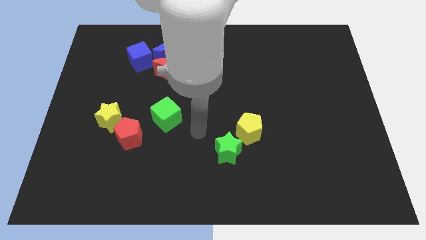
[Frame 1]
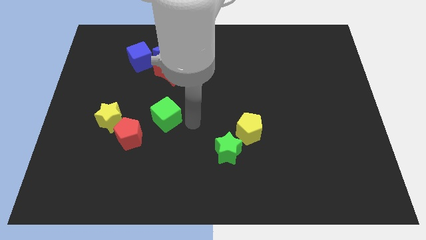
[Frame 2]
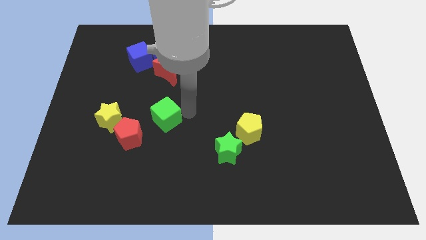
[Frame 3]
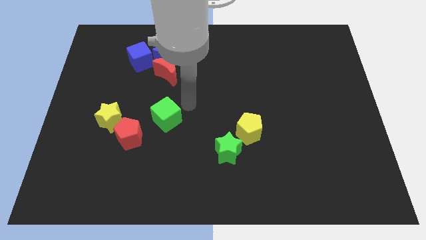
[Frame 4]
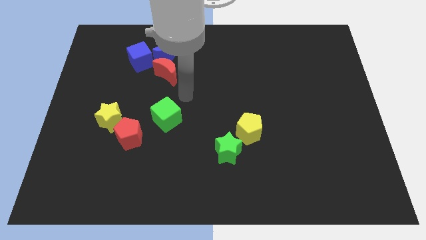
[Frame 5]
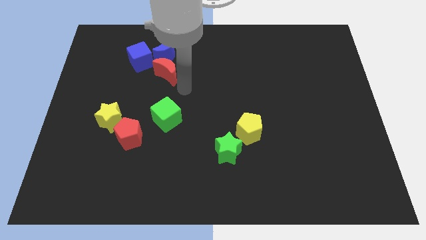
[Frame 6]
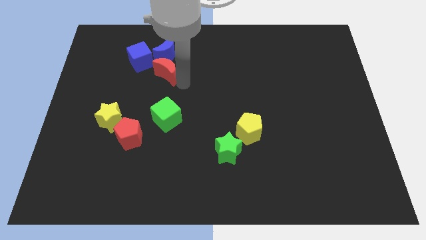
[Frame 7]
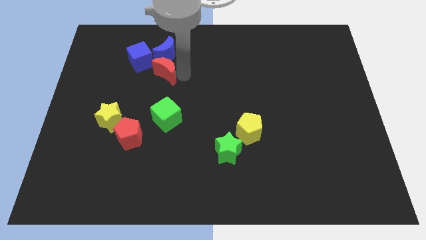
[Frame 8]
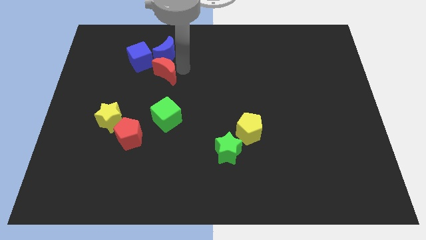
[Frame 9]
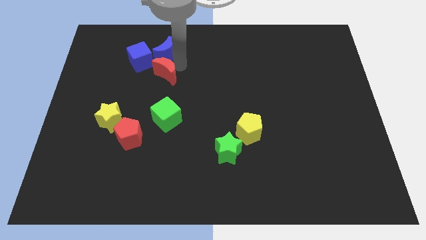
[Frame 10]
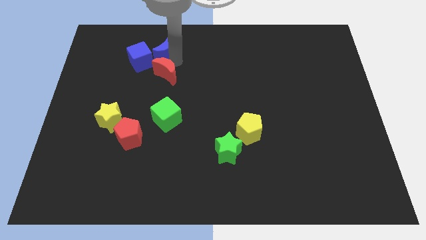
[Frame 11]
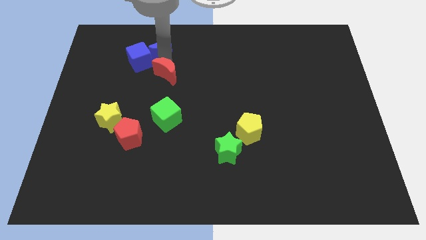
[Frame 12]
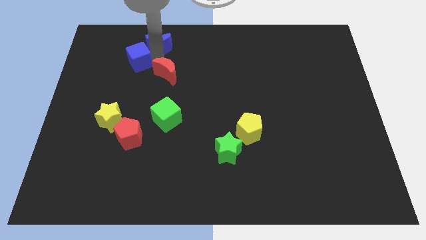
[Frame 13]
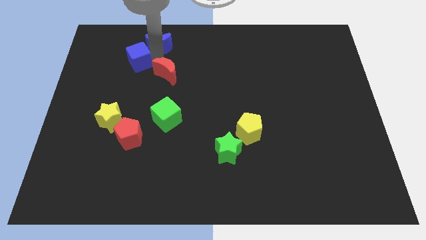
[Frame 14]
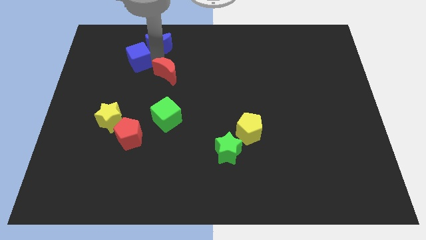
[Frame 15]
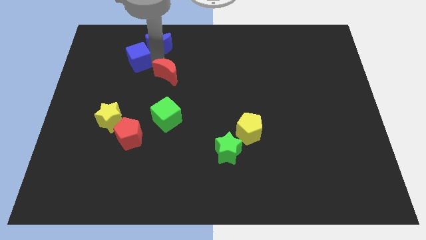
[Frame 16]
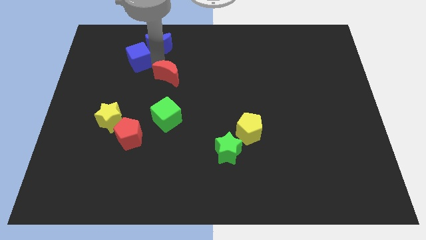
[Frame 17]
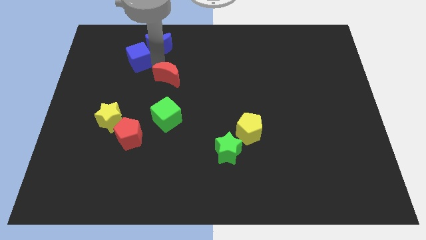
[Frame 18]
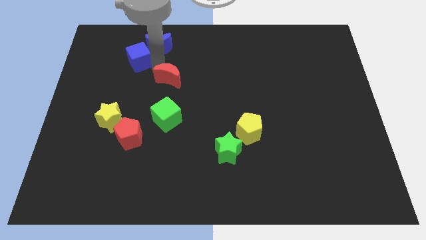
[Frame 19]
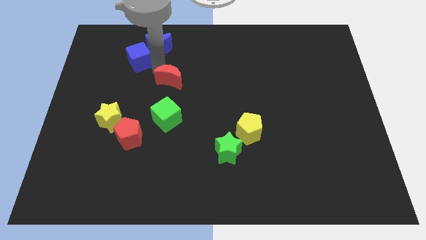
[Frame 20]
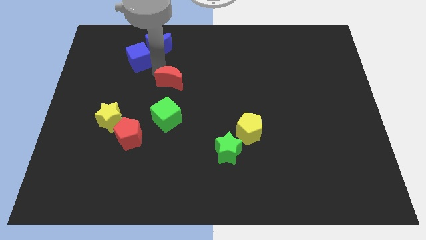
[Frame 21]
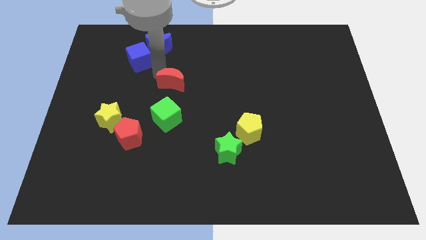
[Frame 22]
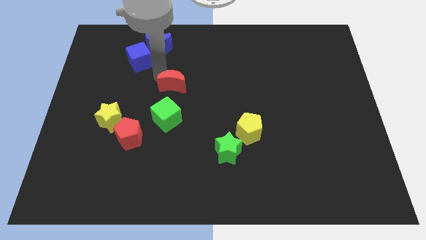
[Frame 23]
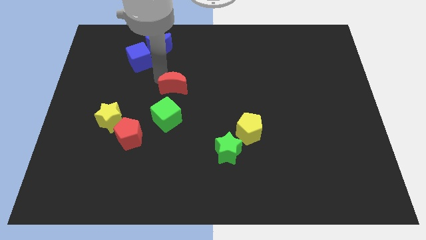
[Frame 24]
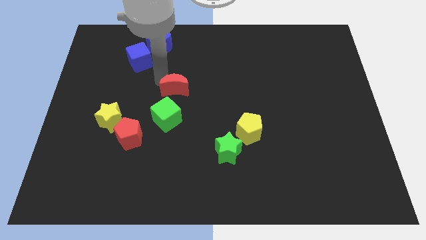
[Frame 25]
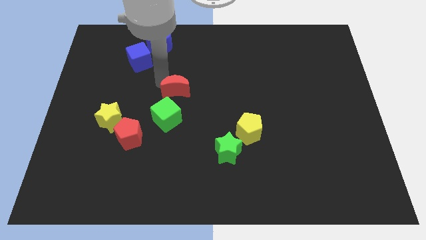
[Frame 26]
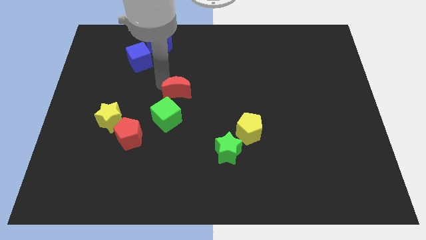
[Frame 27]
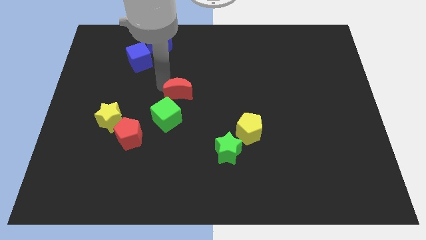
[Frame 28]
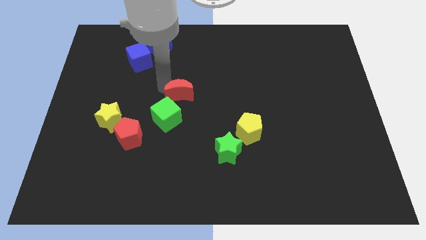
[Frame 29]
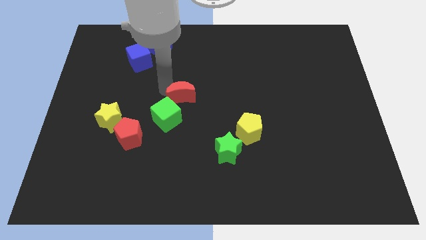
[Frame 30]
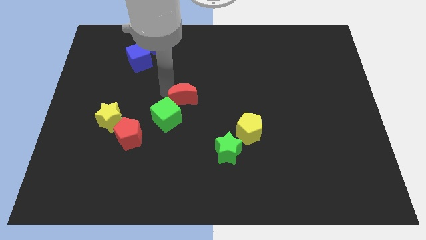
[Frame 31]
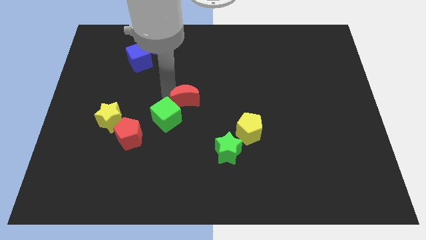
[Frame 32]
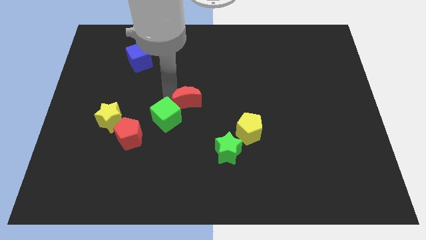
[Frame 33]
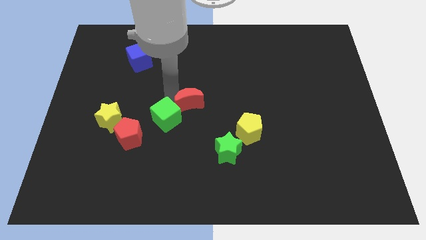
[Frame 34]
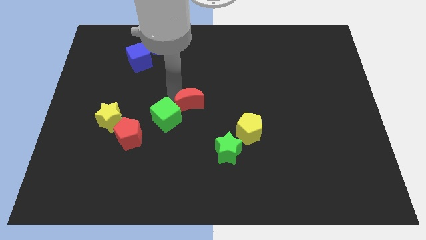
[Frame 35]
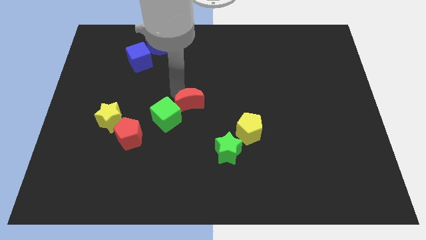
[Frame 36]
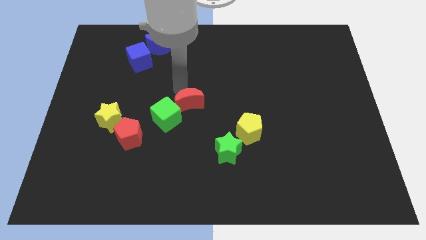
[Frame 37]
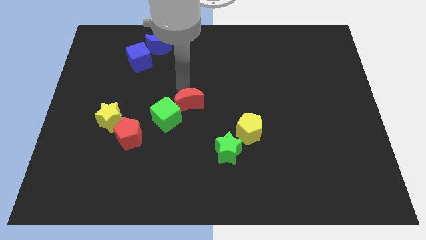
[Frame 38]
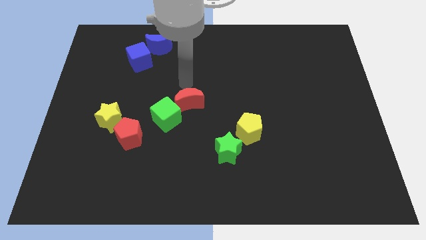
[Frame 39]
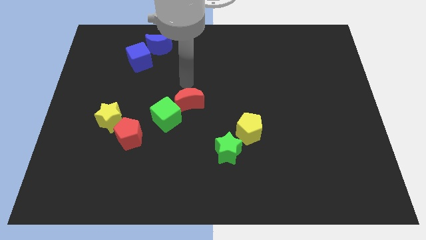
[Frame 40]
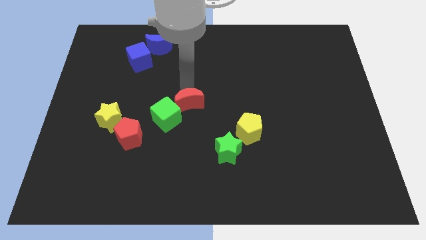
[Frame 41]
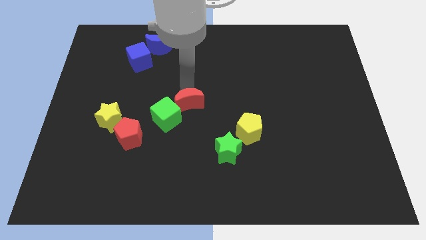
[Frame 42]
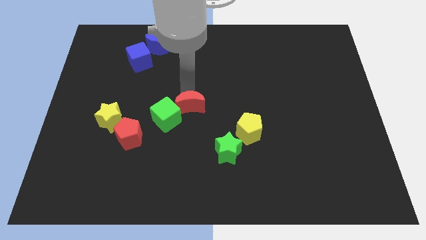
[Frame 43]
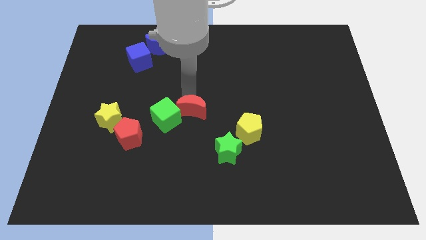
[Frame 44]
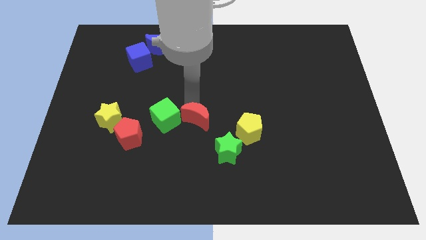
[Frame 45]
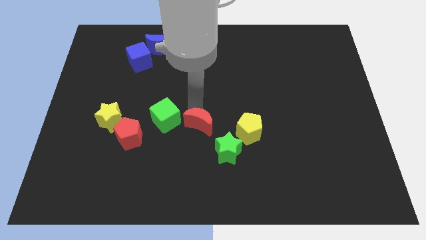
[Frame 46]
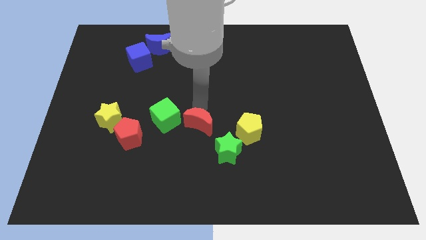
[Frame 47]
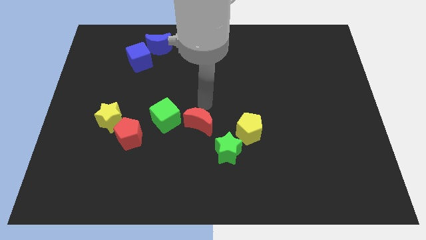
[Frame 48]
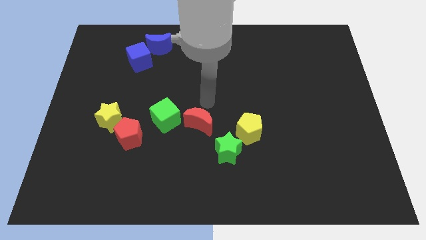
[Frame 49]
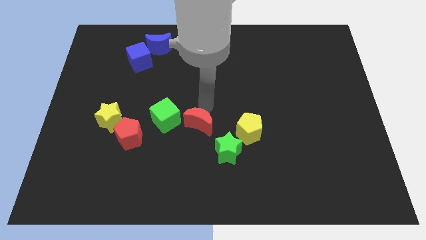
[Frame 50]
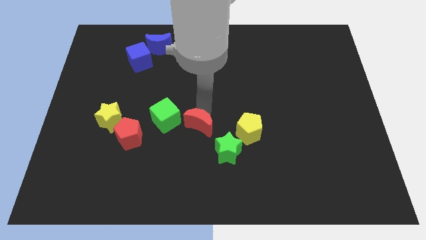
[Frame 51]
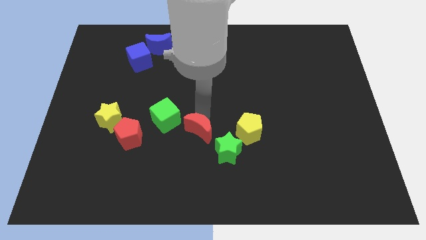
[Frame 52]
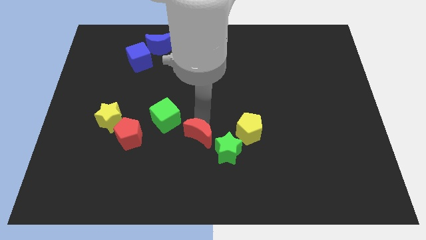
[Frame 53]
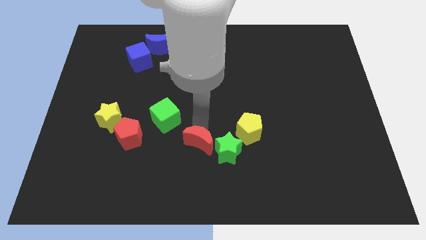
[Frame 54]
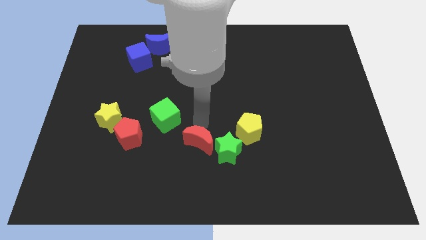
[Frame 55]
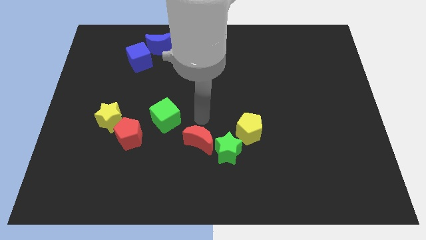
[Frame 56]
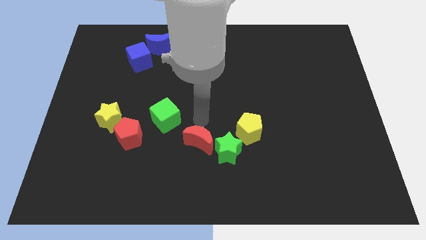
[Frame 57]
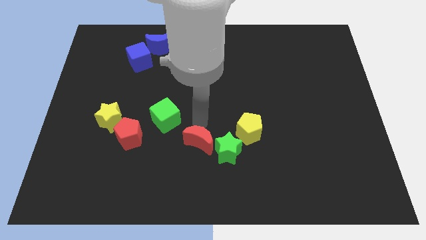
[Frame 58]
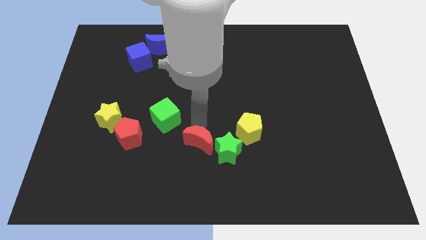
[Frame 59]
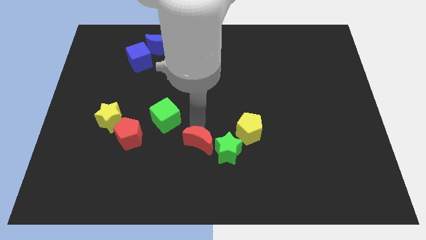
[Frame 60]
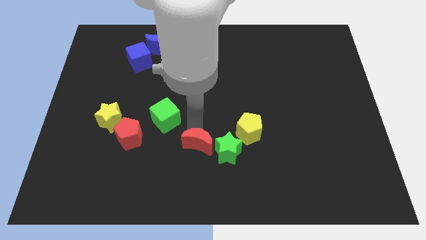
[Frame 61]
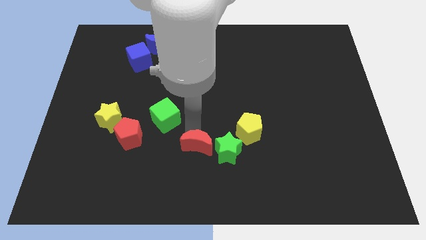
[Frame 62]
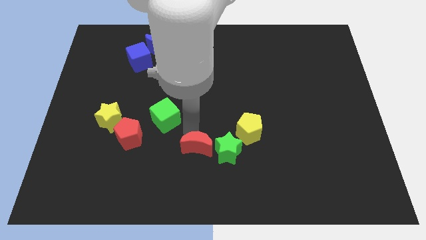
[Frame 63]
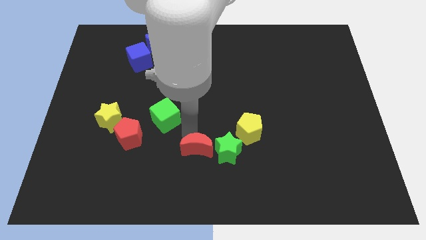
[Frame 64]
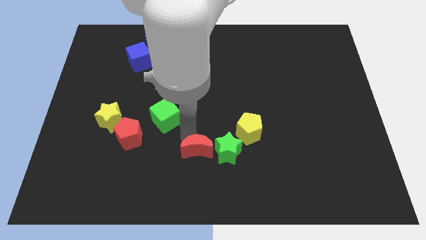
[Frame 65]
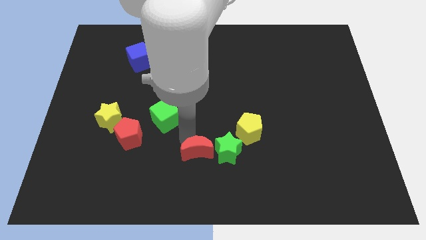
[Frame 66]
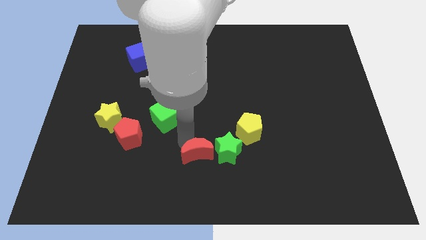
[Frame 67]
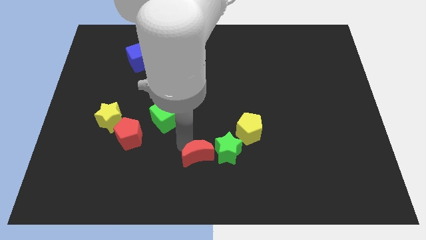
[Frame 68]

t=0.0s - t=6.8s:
put the red moon to the bottom
